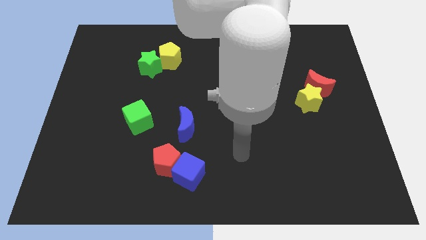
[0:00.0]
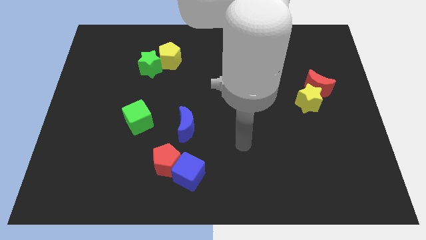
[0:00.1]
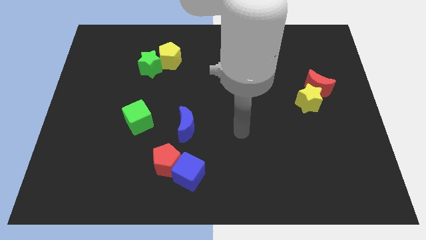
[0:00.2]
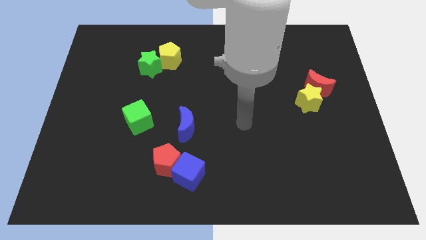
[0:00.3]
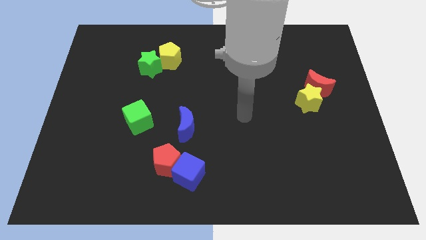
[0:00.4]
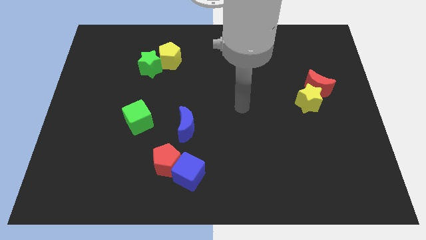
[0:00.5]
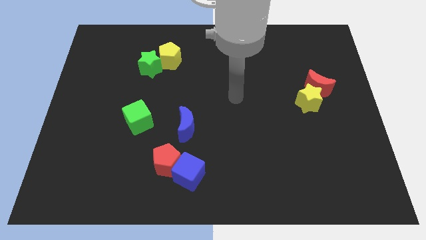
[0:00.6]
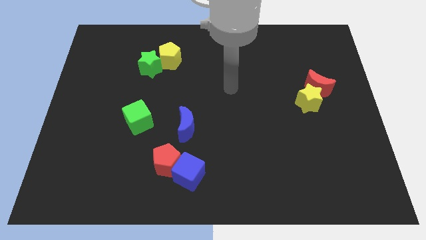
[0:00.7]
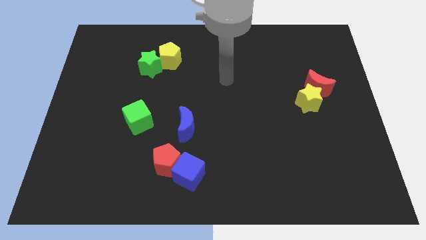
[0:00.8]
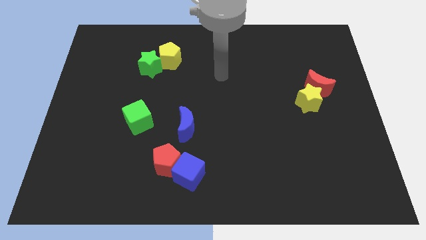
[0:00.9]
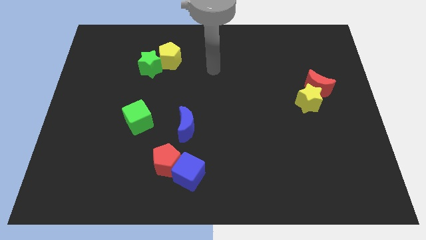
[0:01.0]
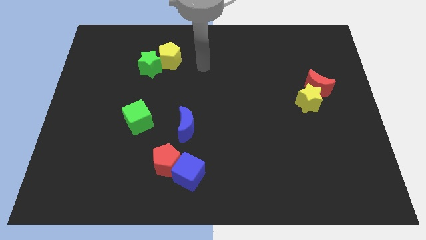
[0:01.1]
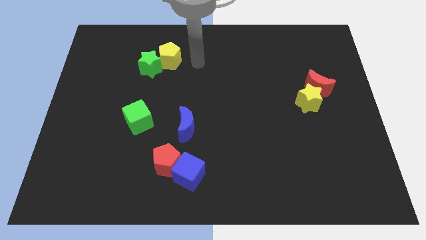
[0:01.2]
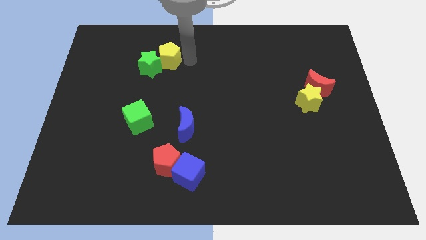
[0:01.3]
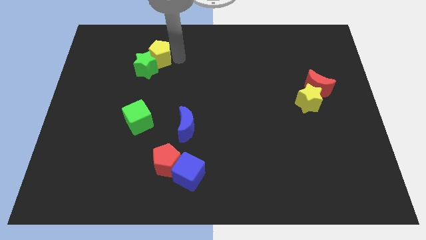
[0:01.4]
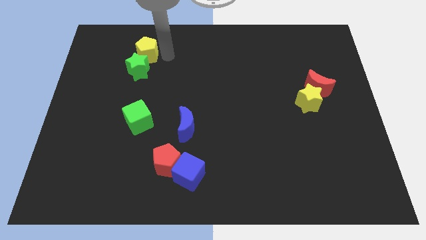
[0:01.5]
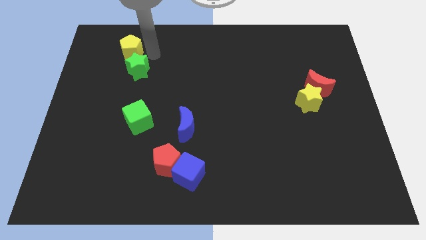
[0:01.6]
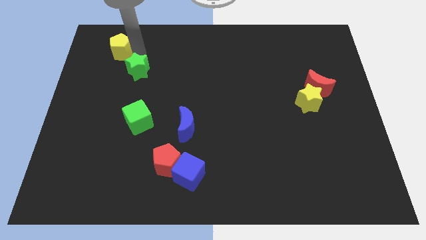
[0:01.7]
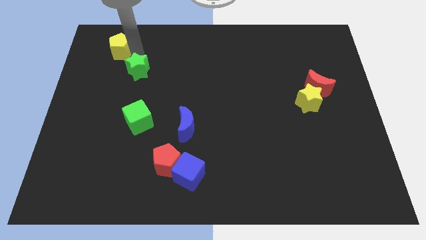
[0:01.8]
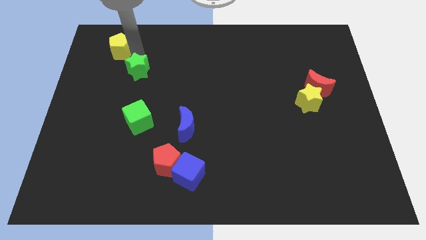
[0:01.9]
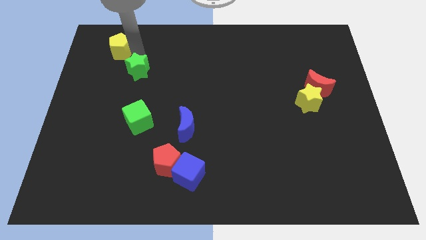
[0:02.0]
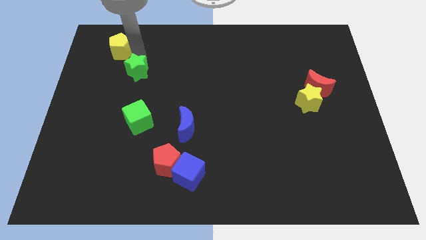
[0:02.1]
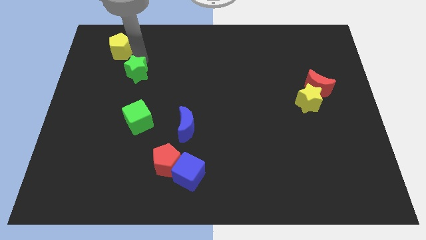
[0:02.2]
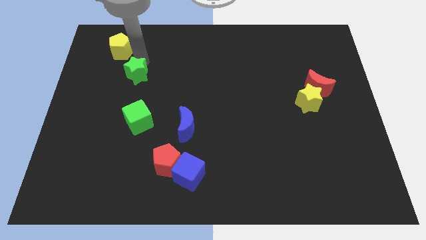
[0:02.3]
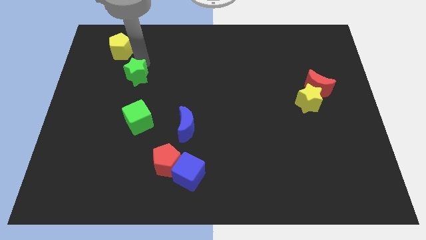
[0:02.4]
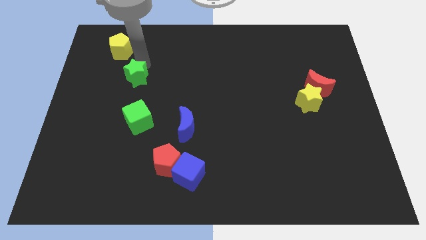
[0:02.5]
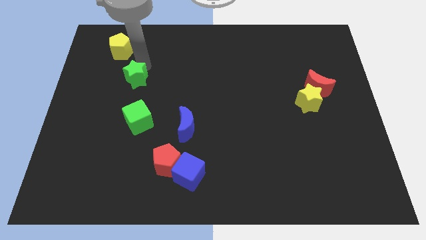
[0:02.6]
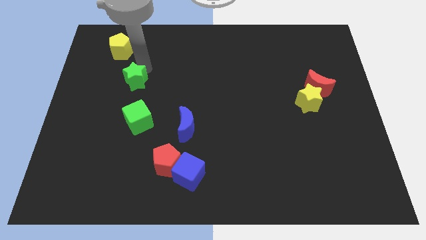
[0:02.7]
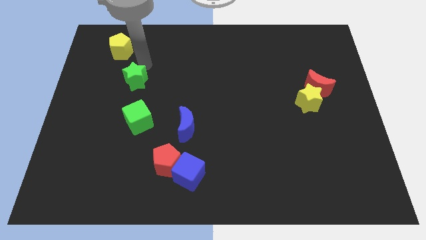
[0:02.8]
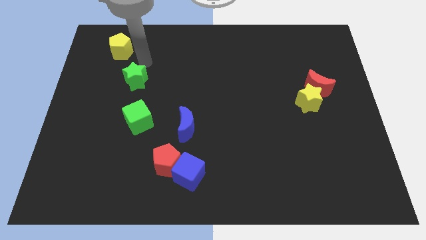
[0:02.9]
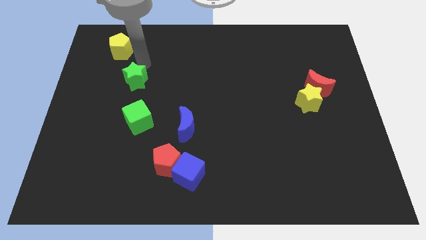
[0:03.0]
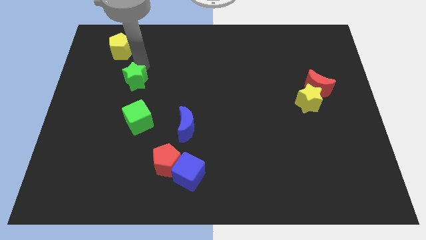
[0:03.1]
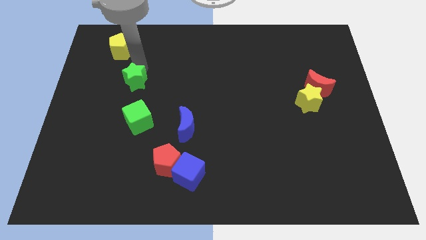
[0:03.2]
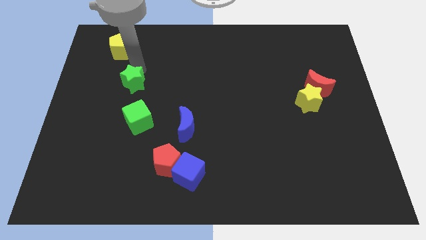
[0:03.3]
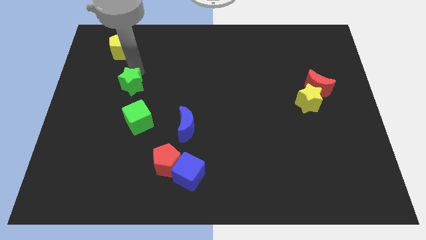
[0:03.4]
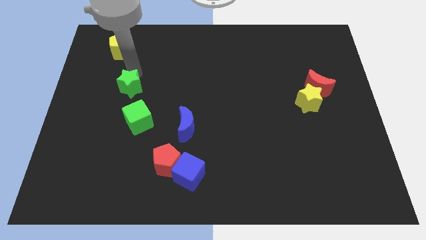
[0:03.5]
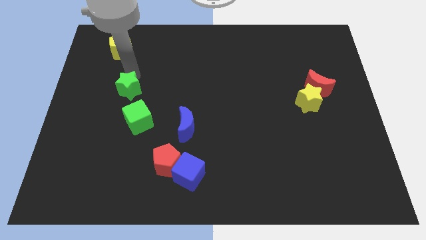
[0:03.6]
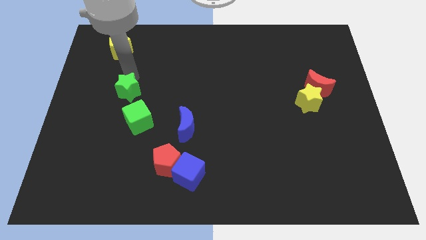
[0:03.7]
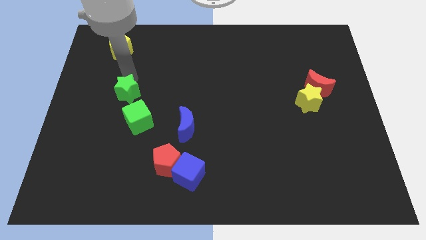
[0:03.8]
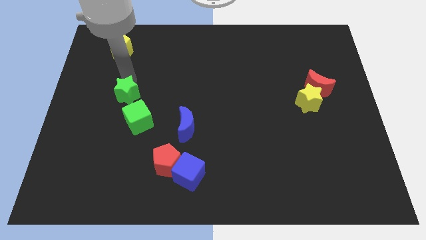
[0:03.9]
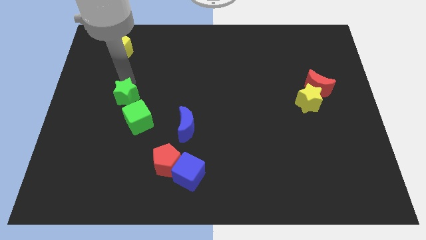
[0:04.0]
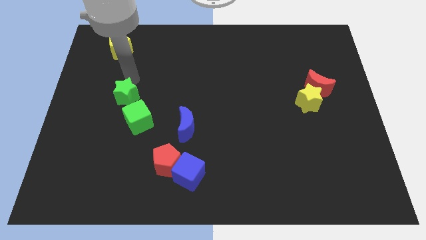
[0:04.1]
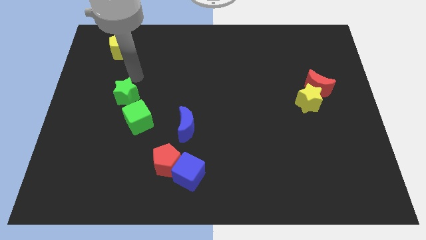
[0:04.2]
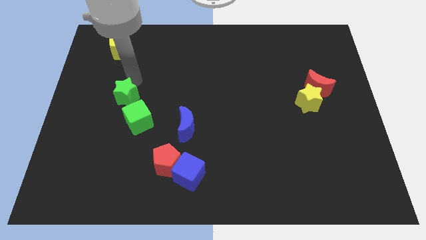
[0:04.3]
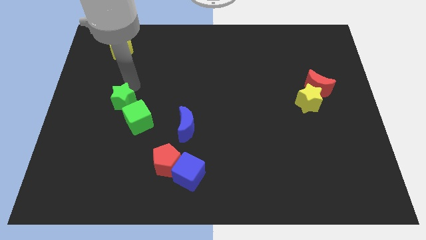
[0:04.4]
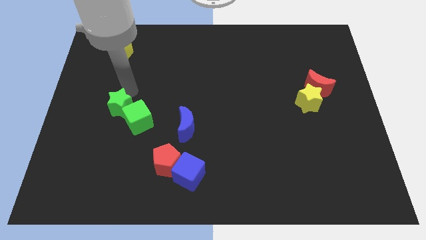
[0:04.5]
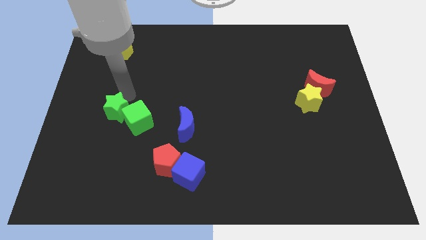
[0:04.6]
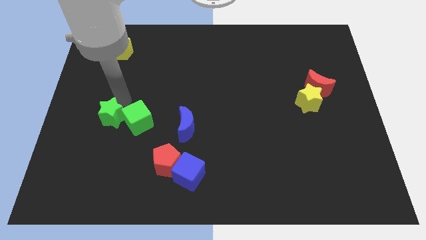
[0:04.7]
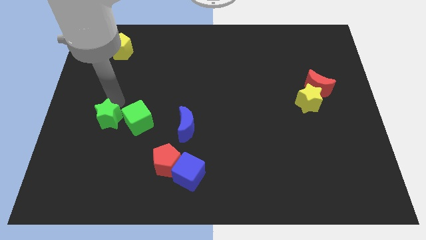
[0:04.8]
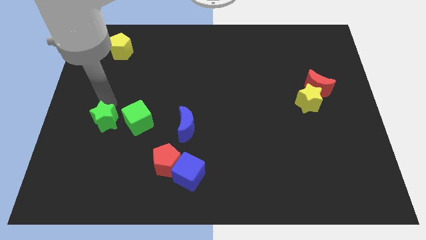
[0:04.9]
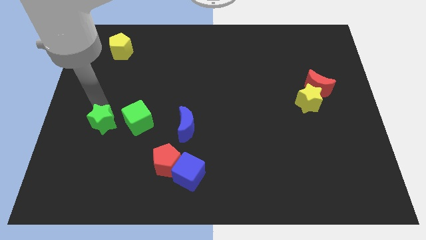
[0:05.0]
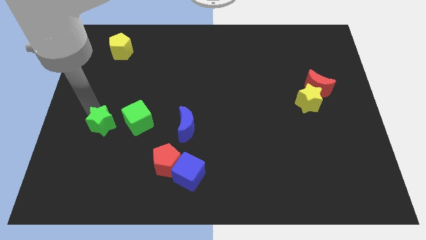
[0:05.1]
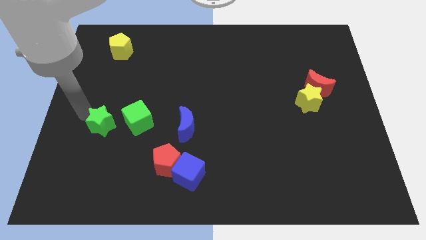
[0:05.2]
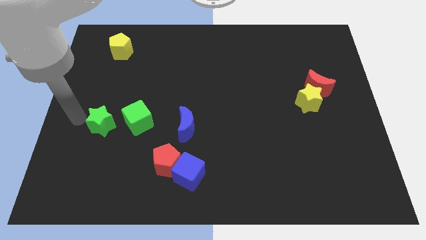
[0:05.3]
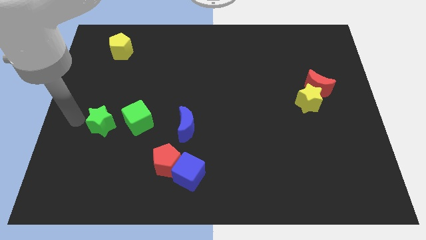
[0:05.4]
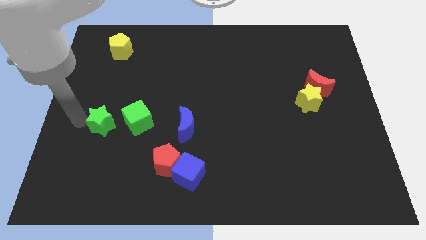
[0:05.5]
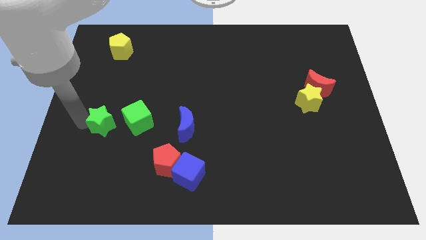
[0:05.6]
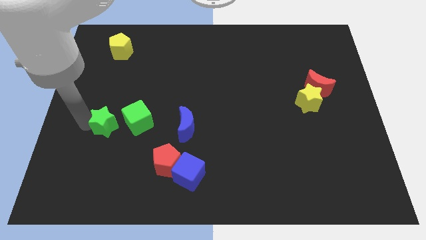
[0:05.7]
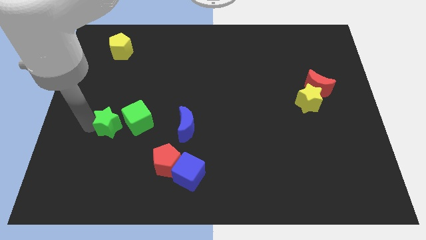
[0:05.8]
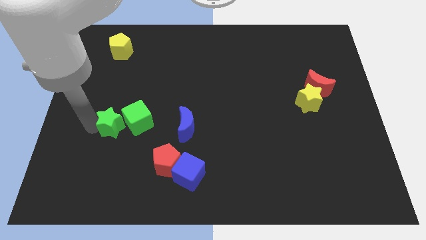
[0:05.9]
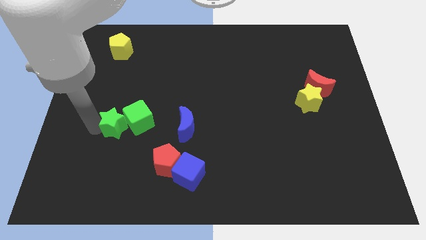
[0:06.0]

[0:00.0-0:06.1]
move the green star just left of the blue moon

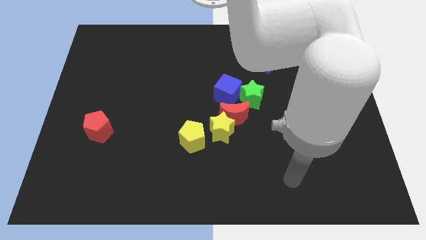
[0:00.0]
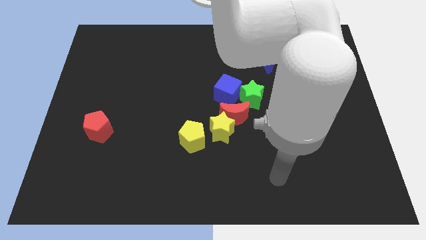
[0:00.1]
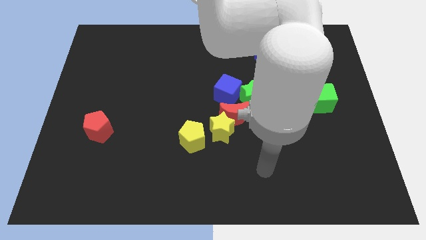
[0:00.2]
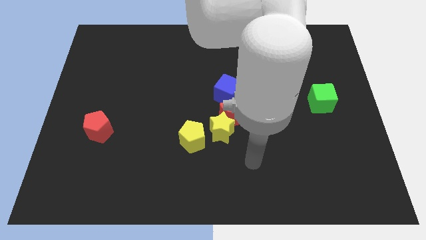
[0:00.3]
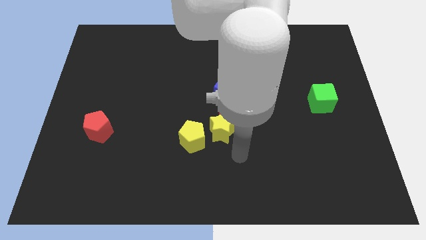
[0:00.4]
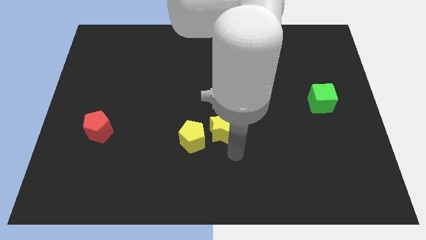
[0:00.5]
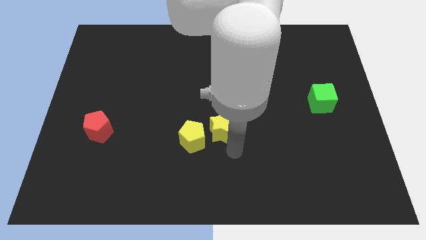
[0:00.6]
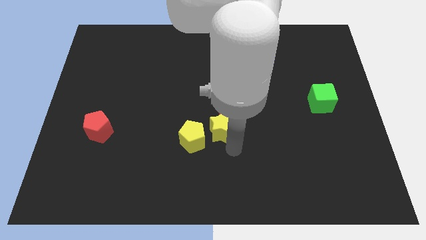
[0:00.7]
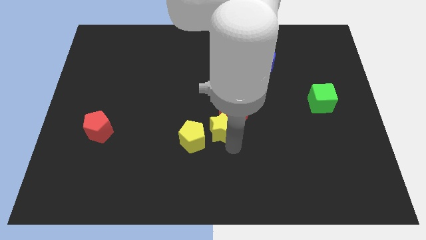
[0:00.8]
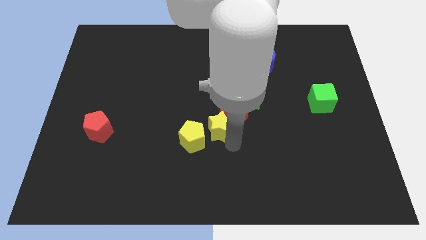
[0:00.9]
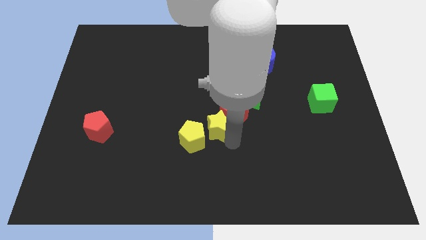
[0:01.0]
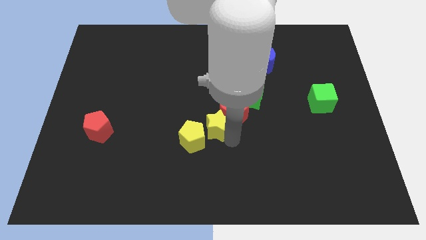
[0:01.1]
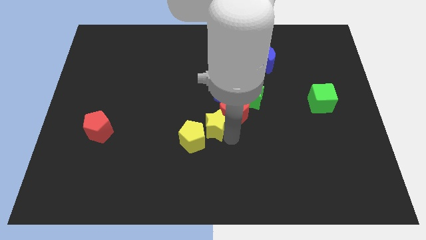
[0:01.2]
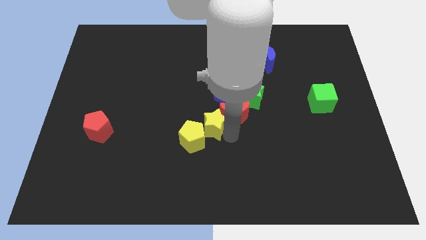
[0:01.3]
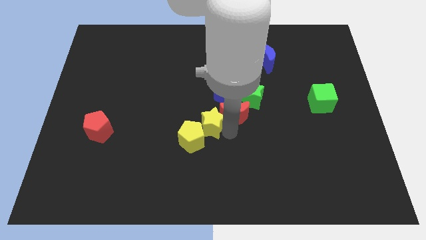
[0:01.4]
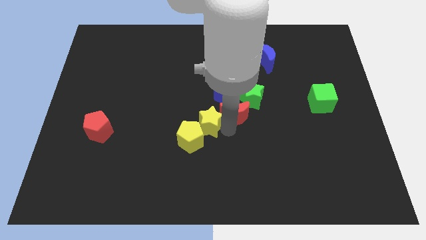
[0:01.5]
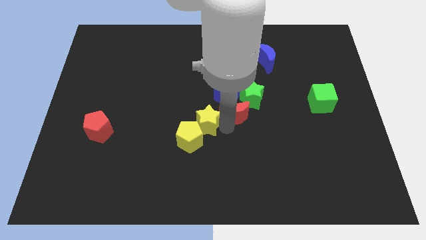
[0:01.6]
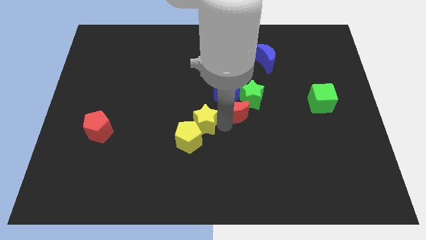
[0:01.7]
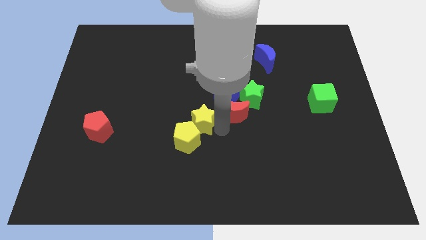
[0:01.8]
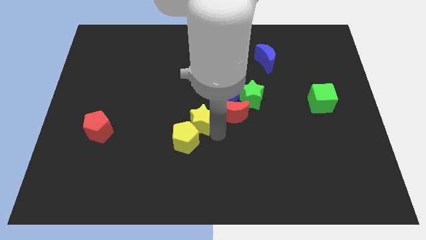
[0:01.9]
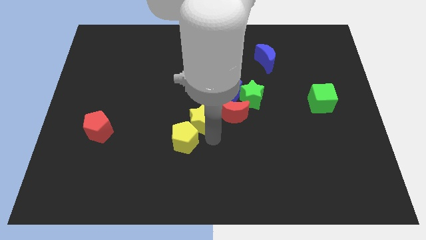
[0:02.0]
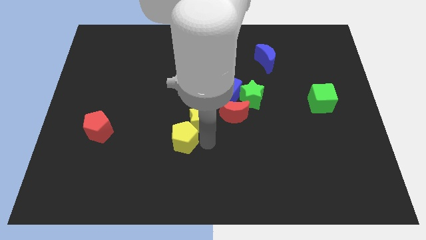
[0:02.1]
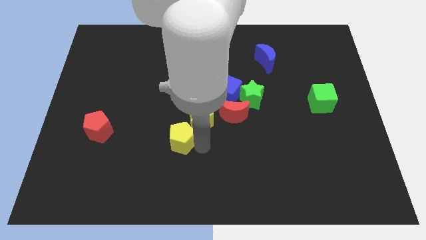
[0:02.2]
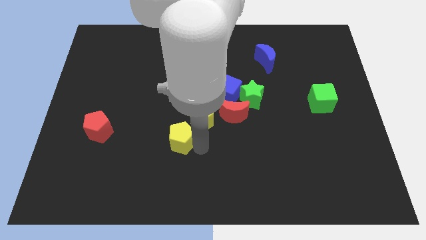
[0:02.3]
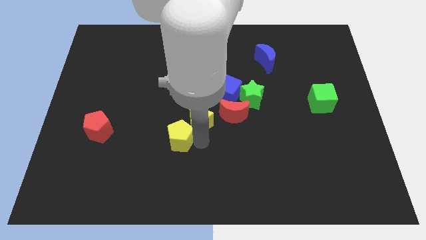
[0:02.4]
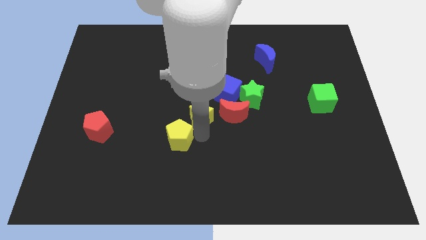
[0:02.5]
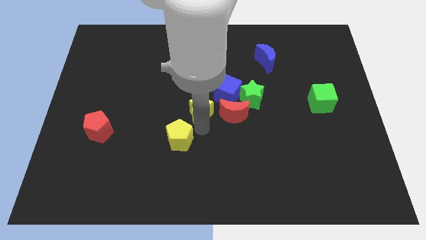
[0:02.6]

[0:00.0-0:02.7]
push the yellow star diagonally up and to the left of the red moon
